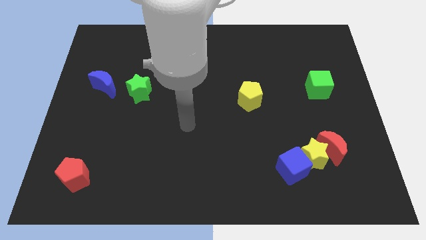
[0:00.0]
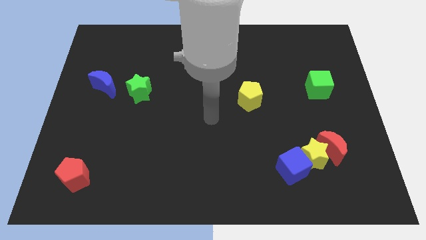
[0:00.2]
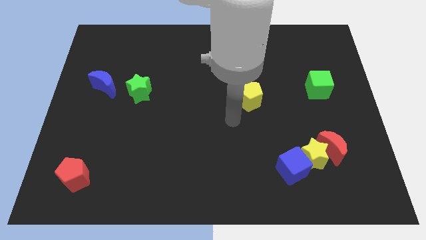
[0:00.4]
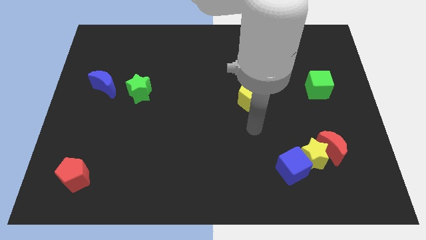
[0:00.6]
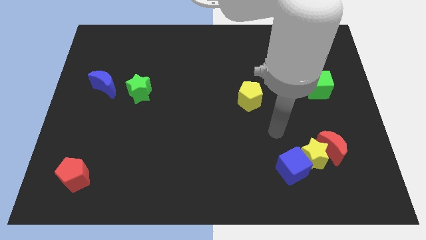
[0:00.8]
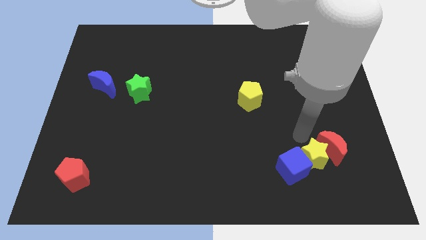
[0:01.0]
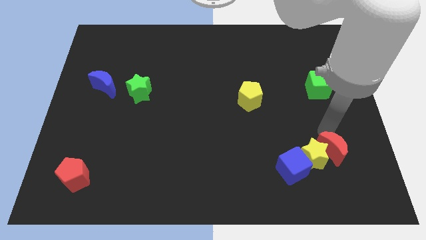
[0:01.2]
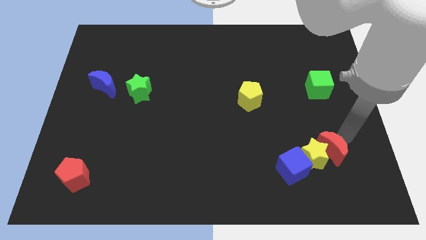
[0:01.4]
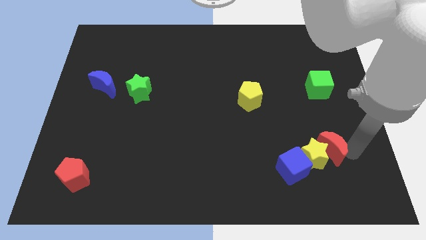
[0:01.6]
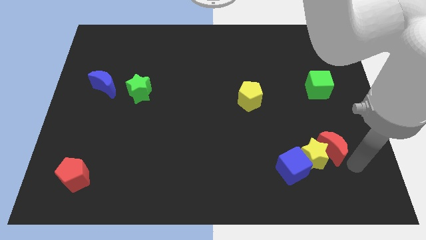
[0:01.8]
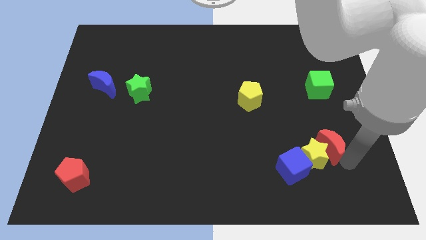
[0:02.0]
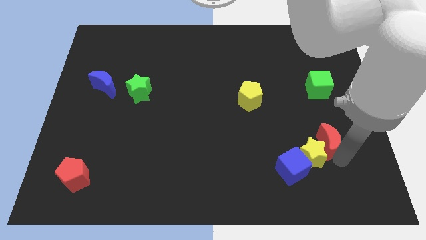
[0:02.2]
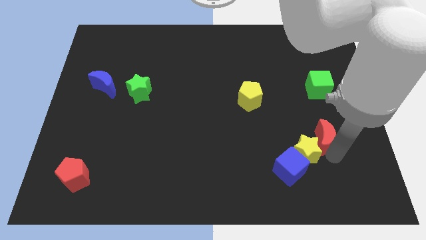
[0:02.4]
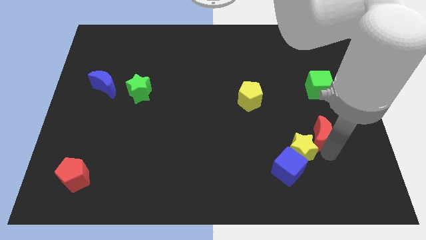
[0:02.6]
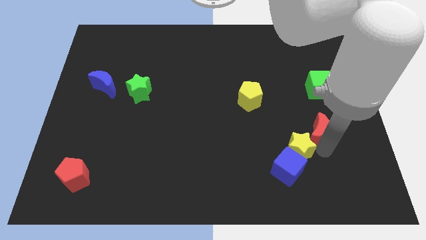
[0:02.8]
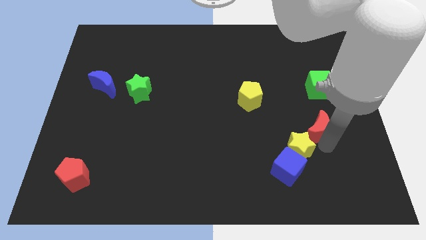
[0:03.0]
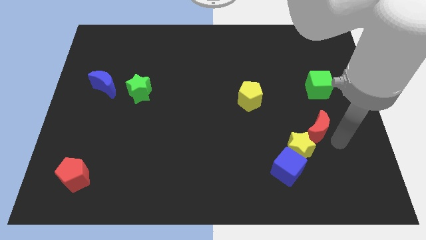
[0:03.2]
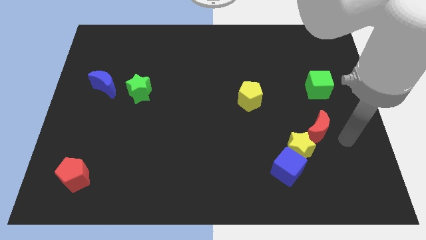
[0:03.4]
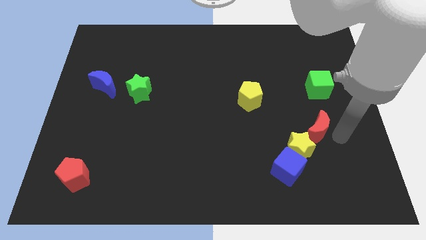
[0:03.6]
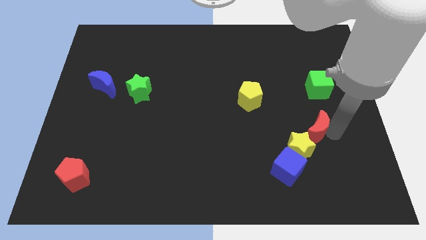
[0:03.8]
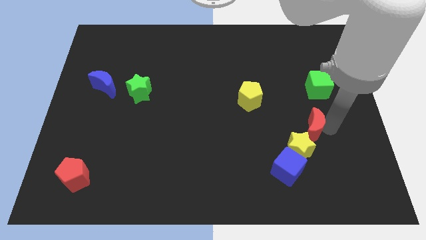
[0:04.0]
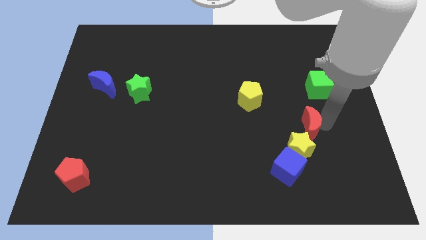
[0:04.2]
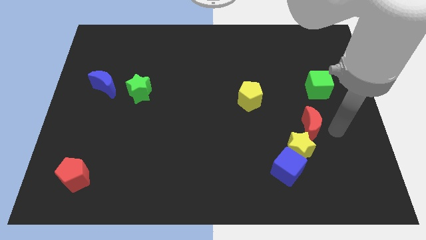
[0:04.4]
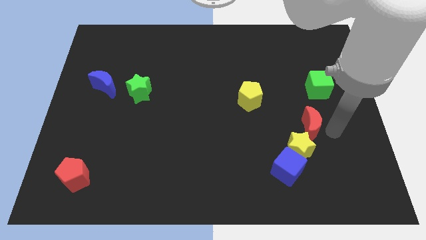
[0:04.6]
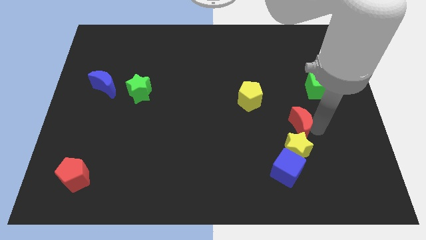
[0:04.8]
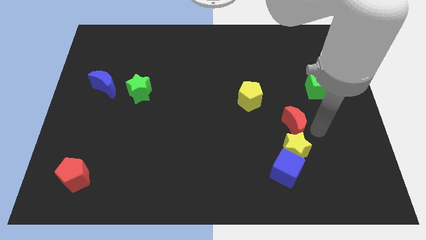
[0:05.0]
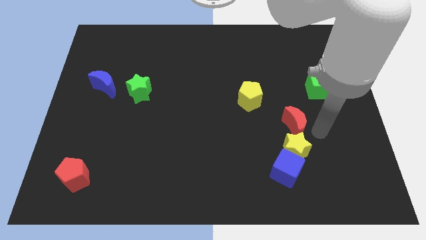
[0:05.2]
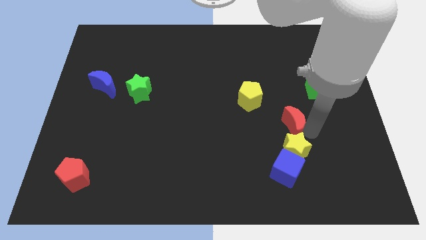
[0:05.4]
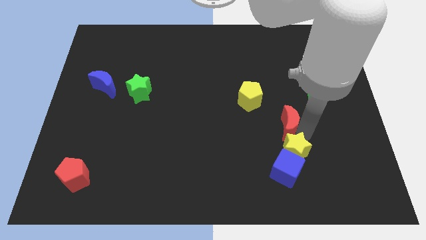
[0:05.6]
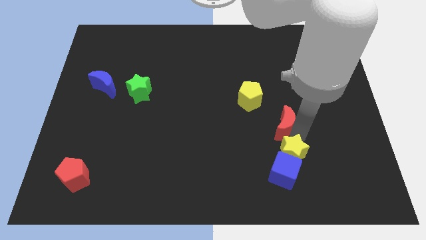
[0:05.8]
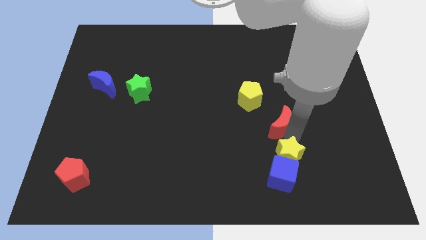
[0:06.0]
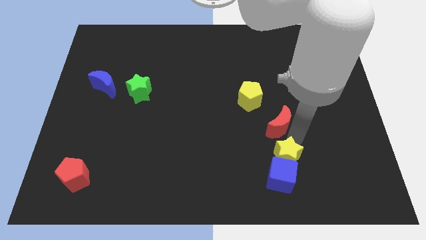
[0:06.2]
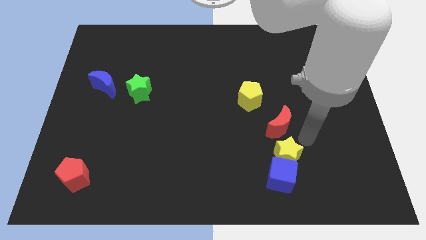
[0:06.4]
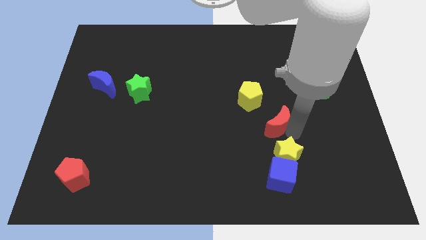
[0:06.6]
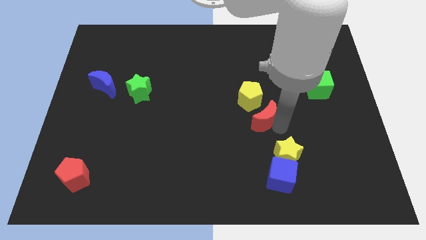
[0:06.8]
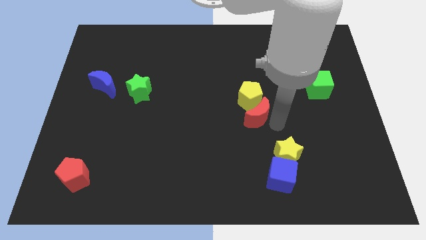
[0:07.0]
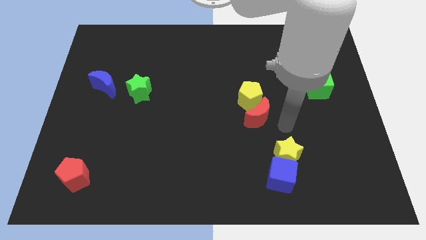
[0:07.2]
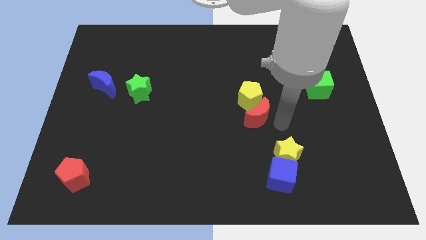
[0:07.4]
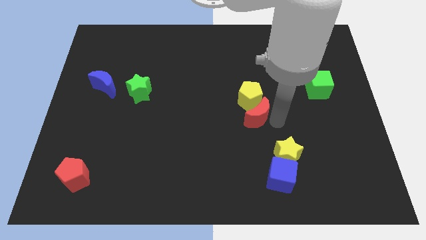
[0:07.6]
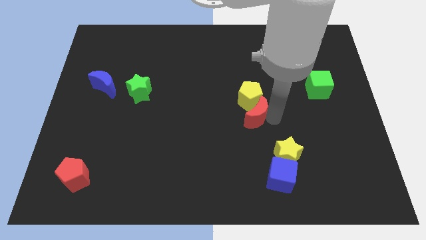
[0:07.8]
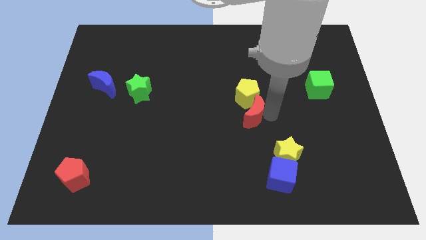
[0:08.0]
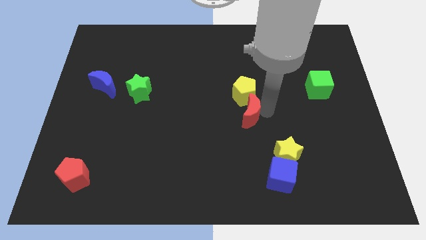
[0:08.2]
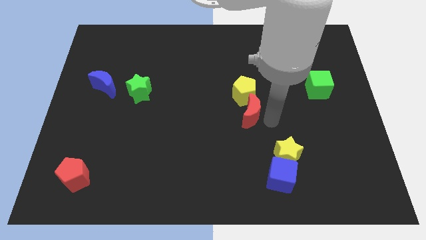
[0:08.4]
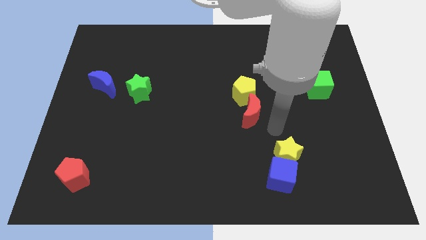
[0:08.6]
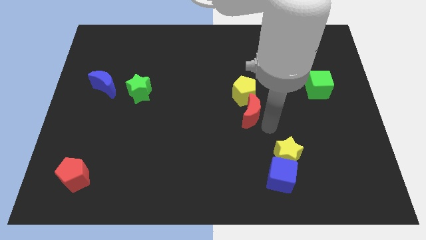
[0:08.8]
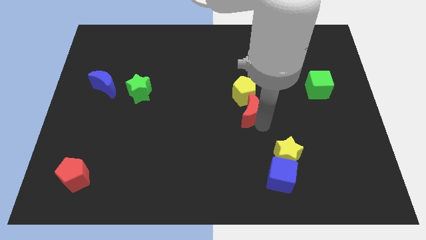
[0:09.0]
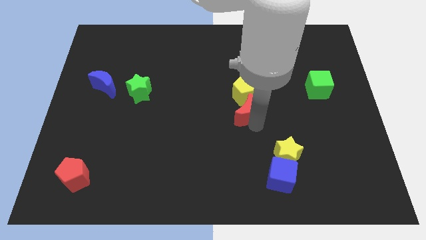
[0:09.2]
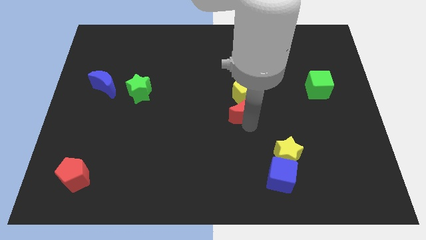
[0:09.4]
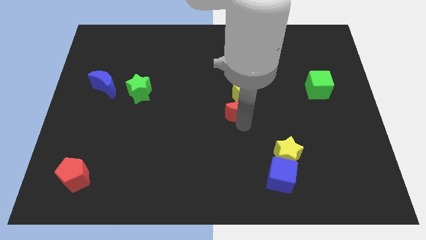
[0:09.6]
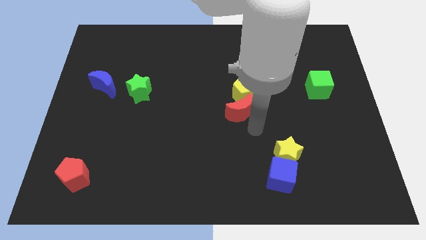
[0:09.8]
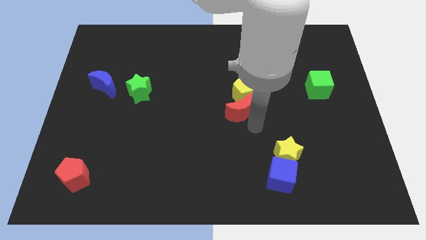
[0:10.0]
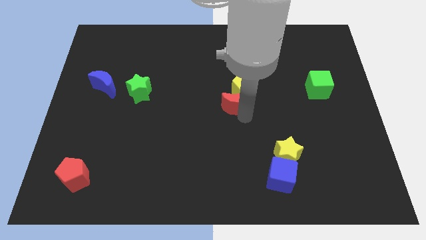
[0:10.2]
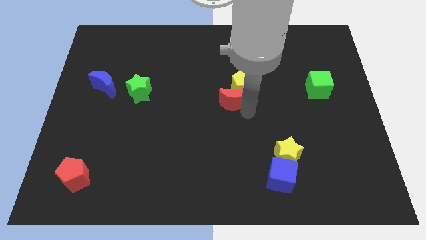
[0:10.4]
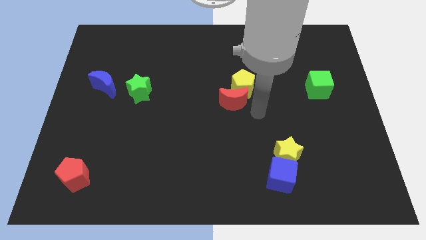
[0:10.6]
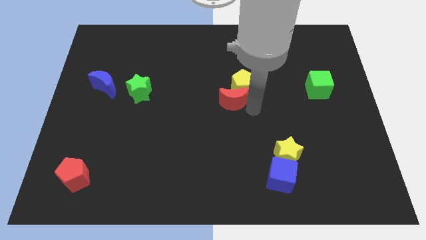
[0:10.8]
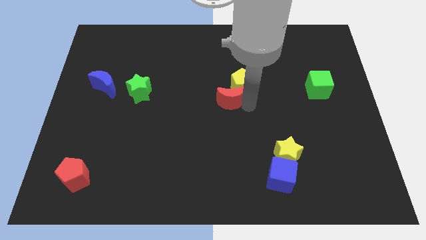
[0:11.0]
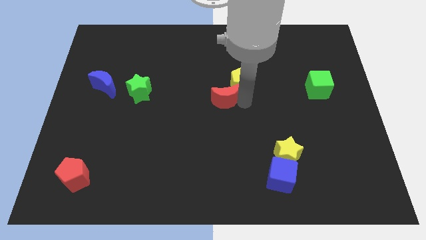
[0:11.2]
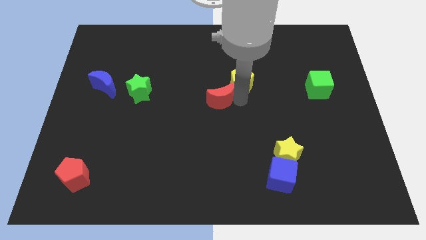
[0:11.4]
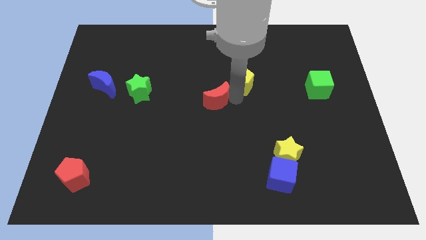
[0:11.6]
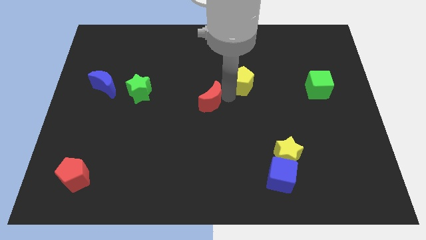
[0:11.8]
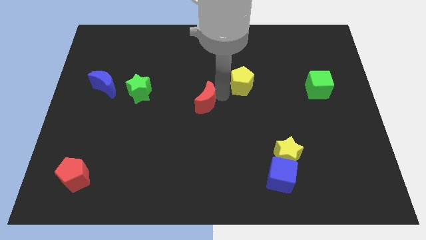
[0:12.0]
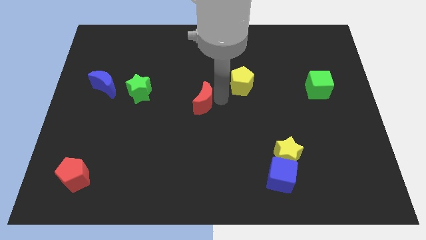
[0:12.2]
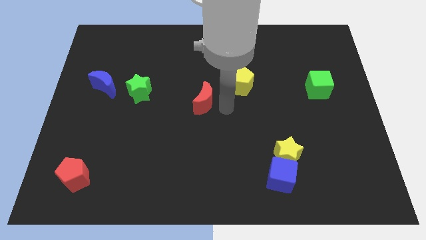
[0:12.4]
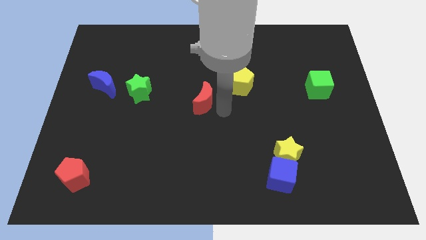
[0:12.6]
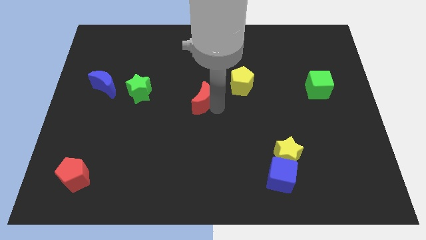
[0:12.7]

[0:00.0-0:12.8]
move the red moon just right of the green star

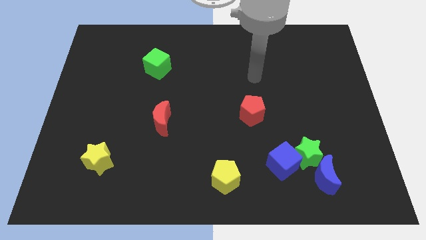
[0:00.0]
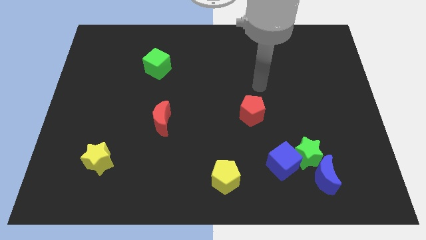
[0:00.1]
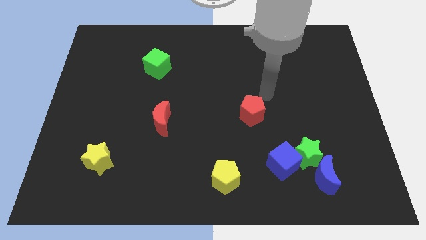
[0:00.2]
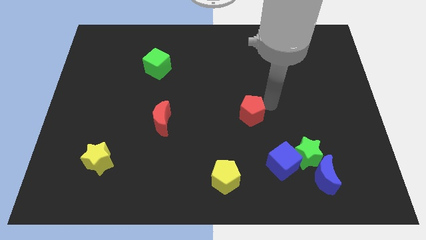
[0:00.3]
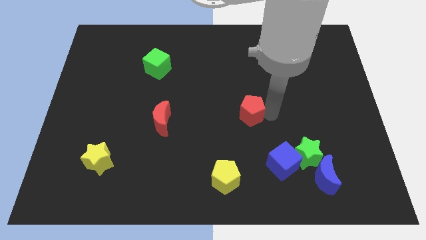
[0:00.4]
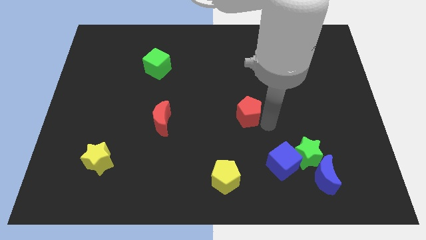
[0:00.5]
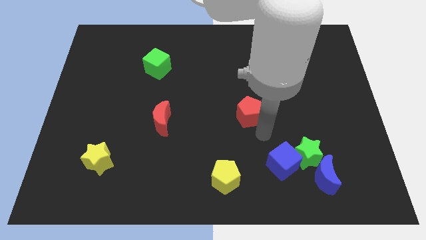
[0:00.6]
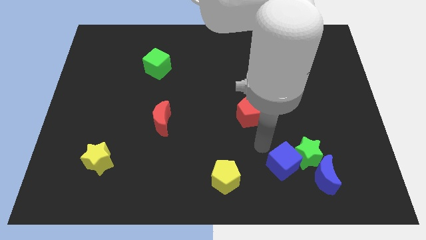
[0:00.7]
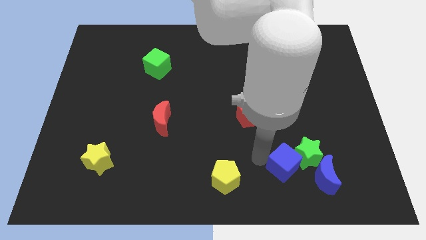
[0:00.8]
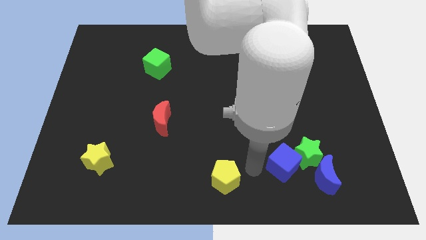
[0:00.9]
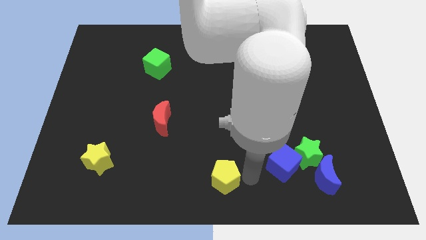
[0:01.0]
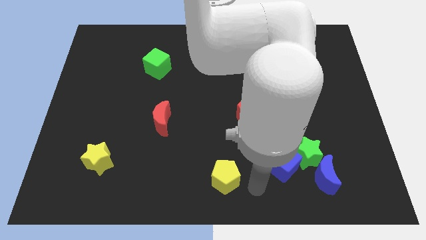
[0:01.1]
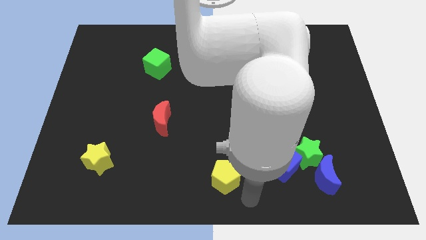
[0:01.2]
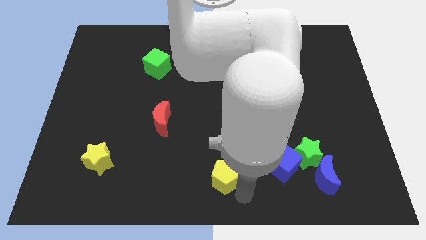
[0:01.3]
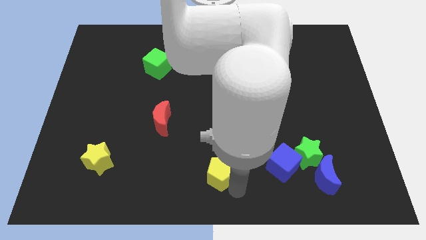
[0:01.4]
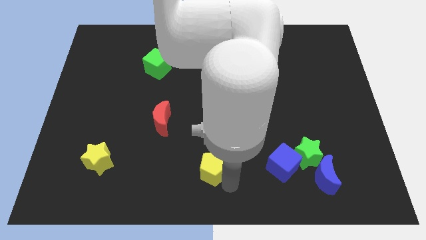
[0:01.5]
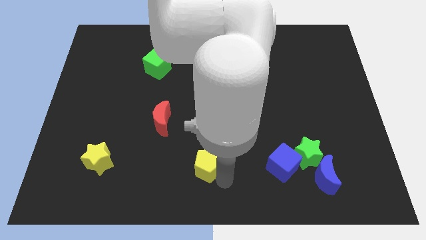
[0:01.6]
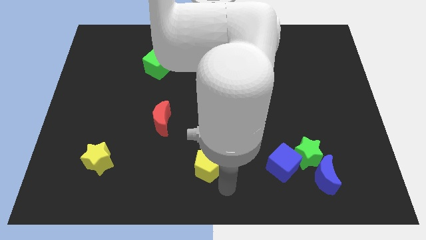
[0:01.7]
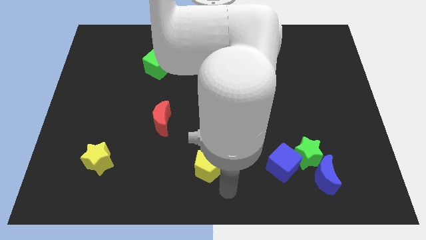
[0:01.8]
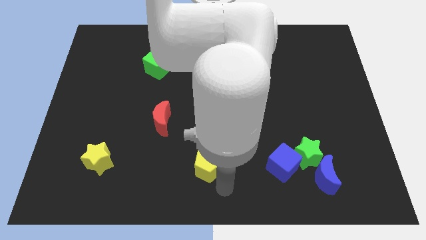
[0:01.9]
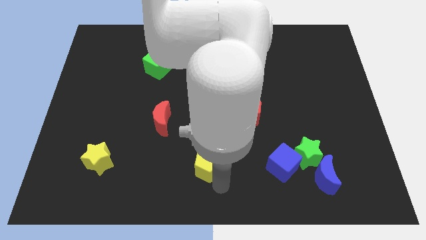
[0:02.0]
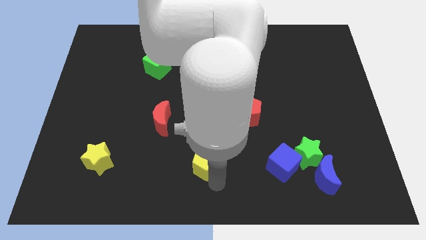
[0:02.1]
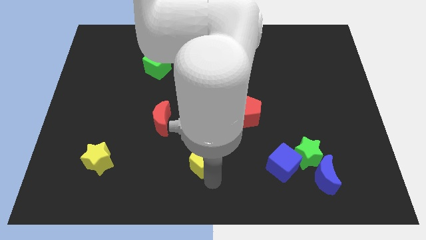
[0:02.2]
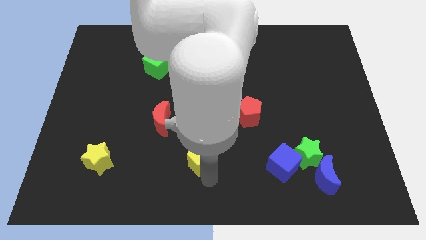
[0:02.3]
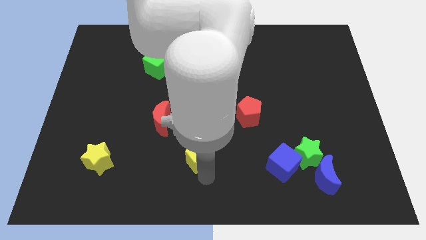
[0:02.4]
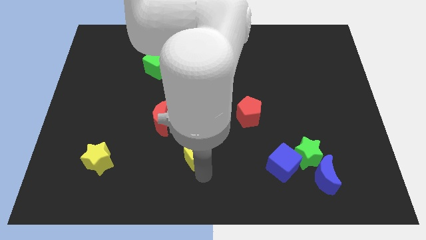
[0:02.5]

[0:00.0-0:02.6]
slide the yellow pentagon to the bottom right side of the red moon
